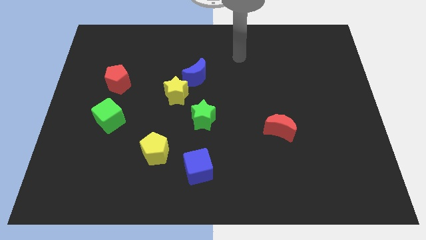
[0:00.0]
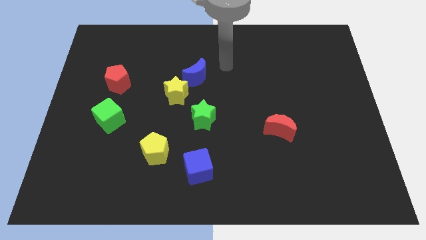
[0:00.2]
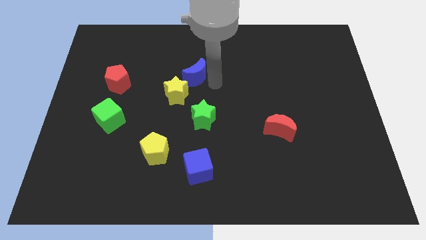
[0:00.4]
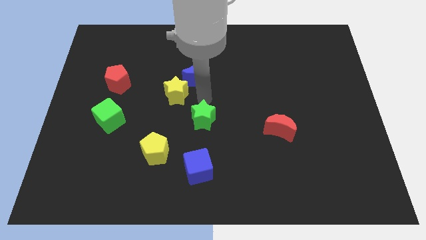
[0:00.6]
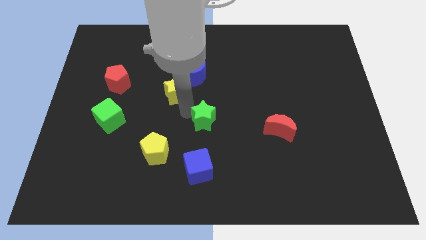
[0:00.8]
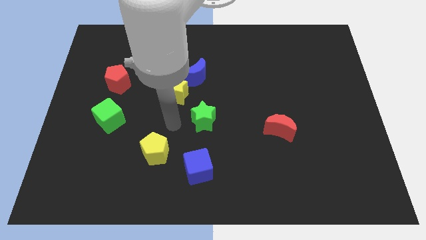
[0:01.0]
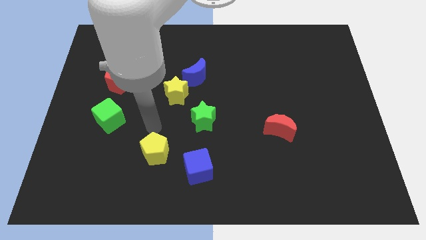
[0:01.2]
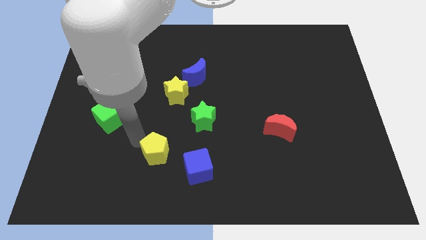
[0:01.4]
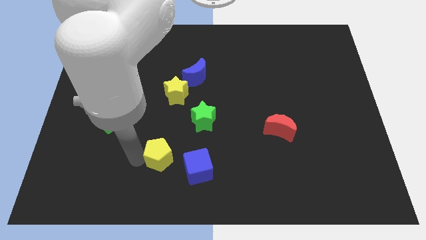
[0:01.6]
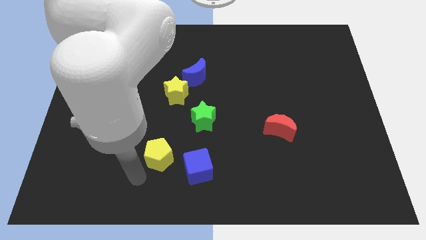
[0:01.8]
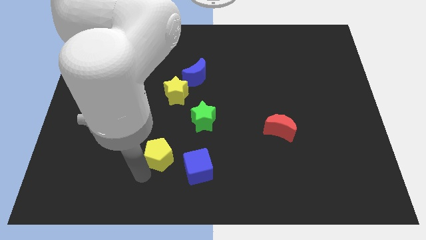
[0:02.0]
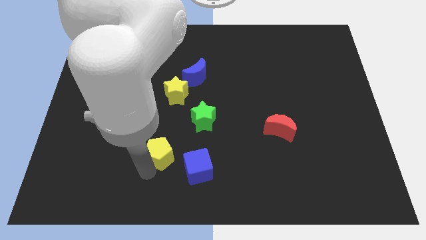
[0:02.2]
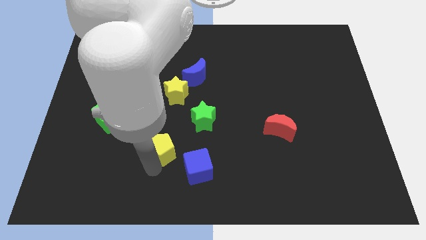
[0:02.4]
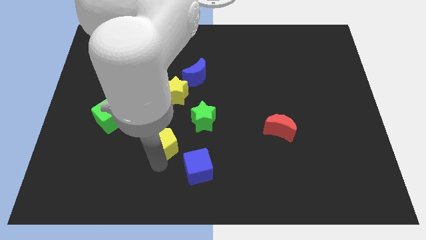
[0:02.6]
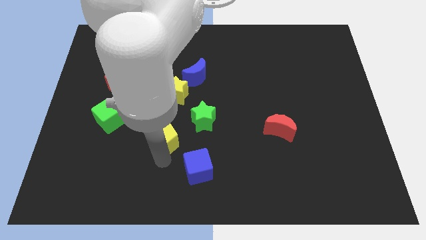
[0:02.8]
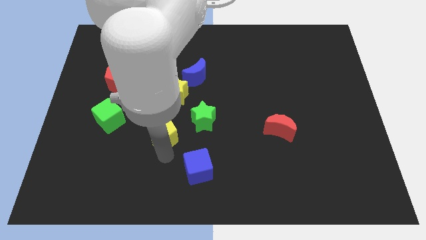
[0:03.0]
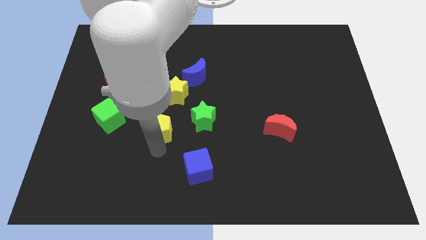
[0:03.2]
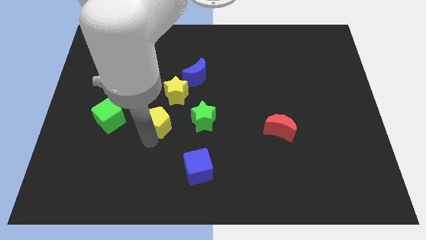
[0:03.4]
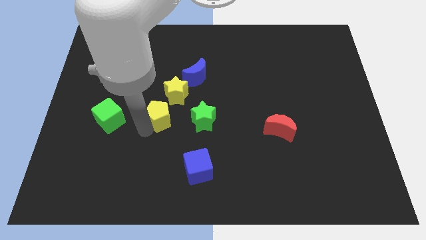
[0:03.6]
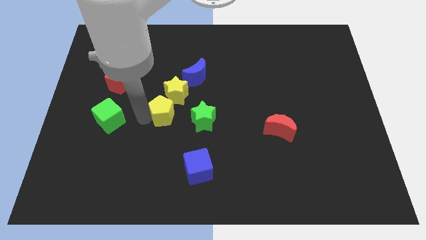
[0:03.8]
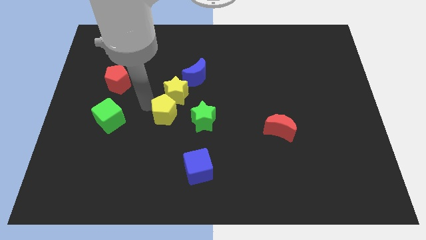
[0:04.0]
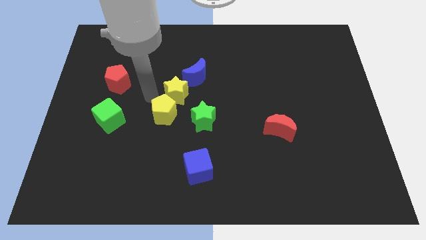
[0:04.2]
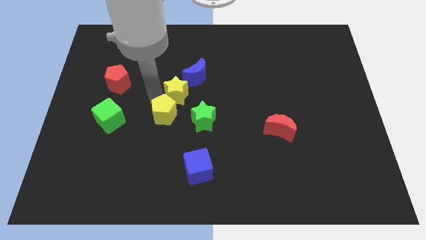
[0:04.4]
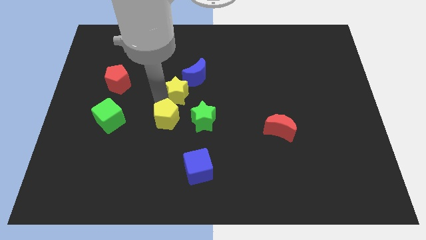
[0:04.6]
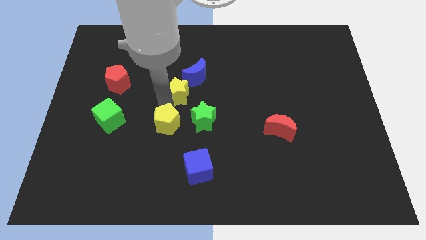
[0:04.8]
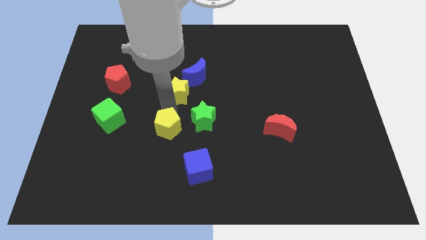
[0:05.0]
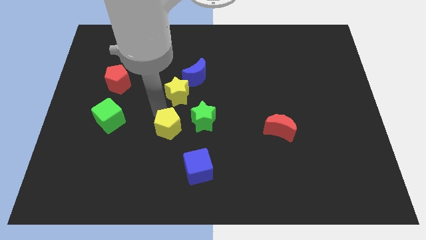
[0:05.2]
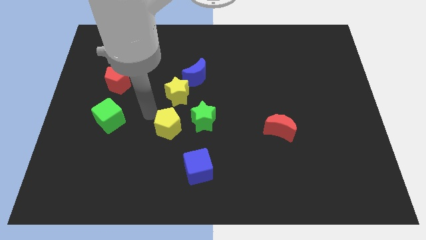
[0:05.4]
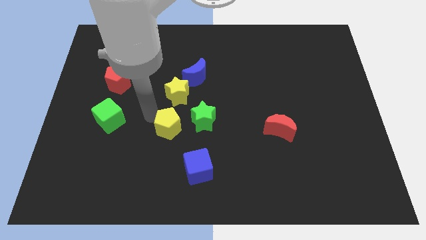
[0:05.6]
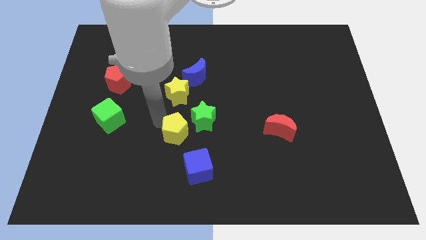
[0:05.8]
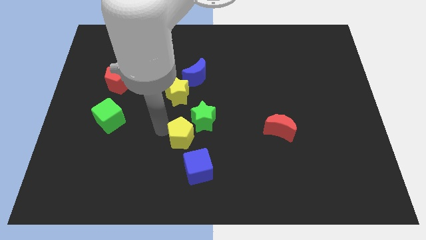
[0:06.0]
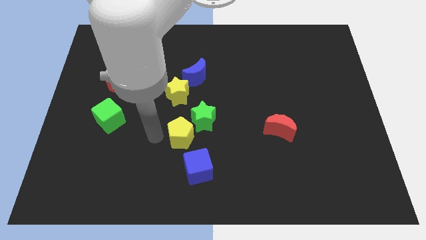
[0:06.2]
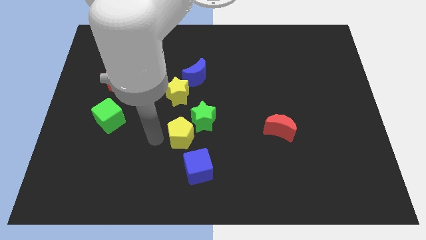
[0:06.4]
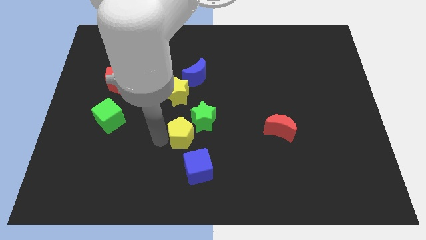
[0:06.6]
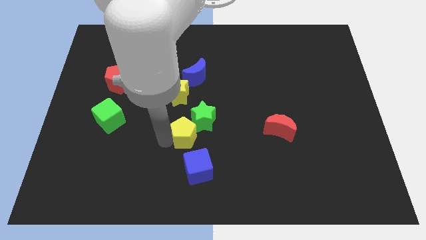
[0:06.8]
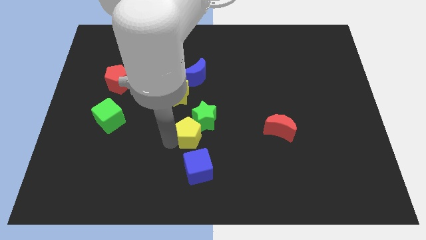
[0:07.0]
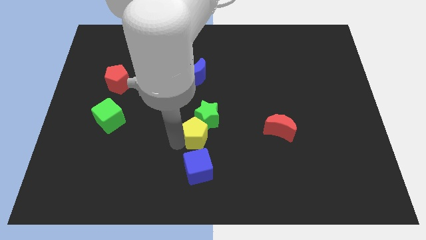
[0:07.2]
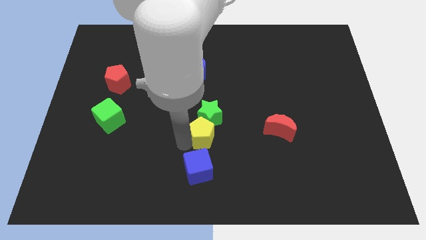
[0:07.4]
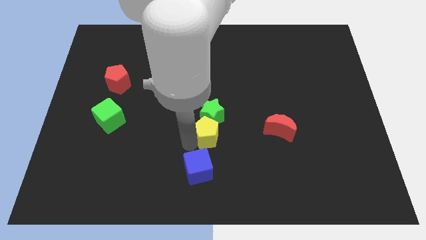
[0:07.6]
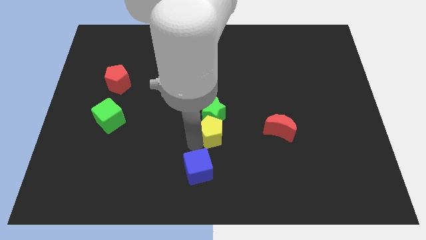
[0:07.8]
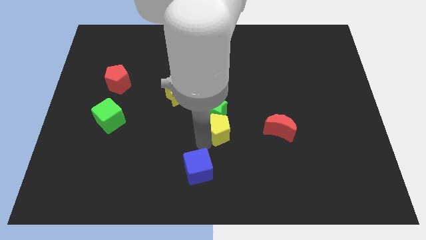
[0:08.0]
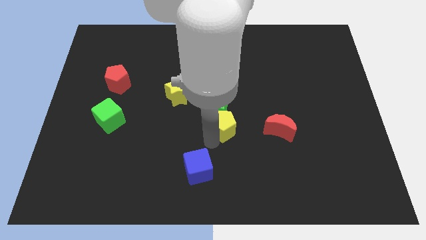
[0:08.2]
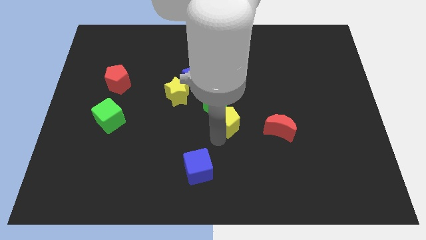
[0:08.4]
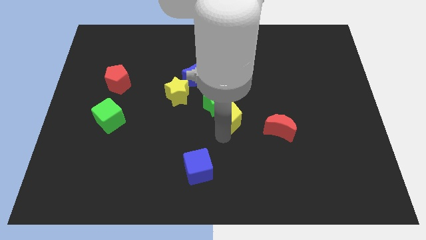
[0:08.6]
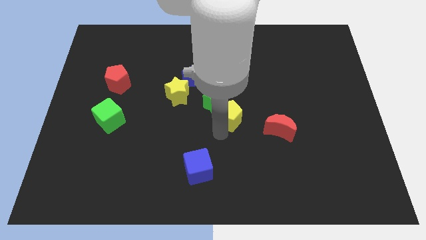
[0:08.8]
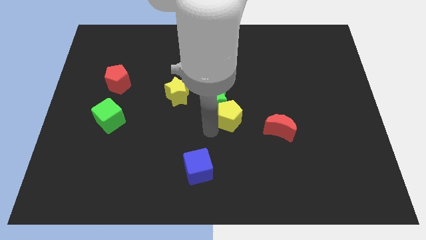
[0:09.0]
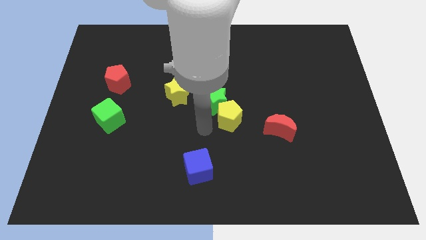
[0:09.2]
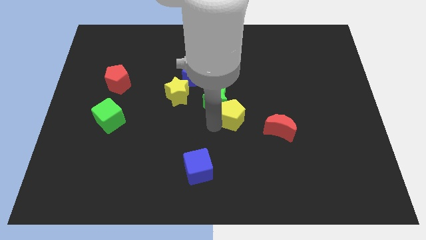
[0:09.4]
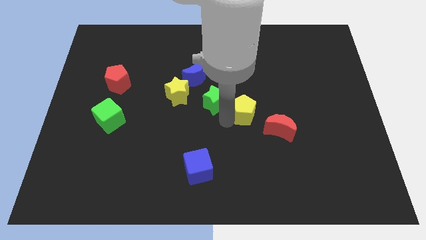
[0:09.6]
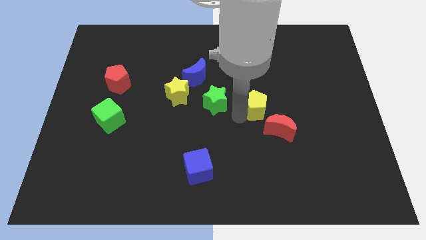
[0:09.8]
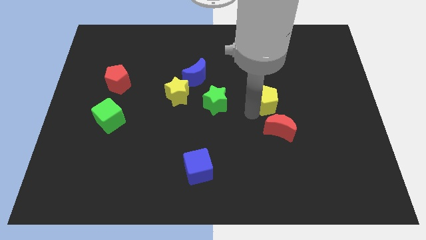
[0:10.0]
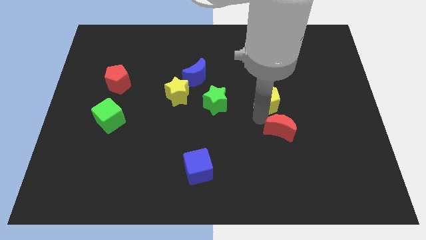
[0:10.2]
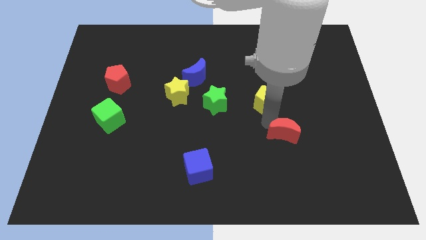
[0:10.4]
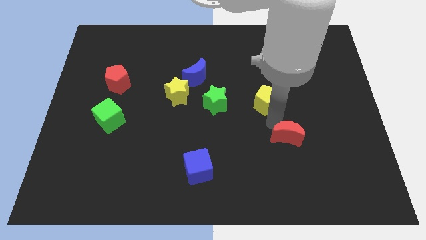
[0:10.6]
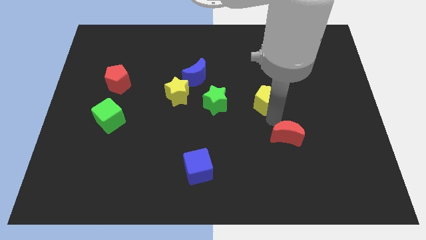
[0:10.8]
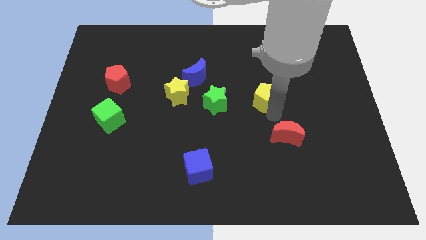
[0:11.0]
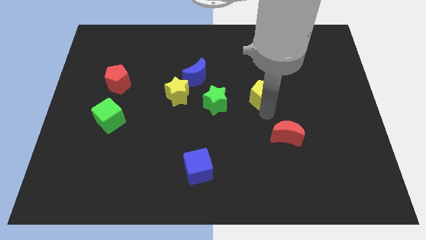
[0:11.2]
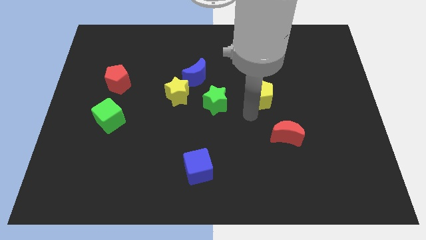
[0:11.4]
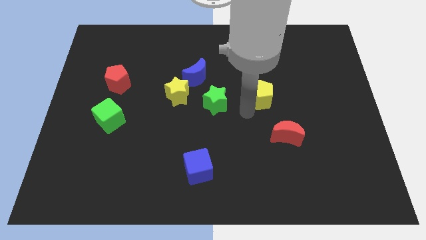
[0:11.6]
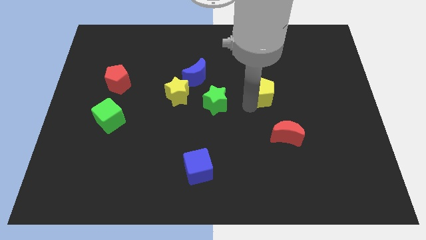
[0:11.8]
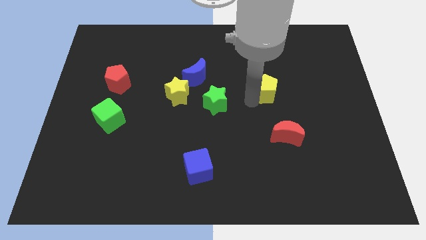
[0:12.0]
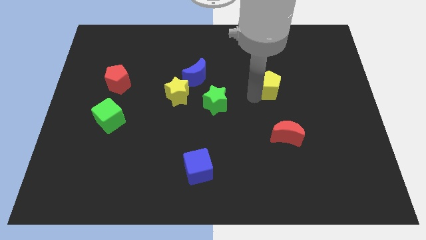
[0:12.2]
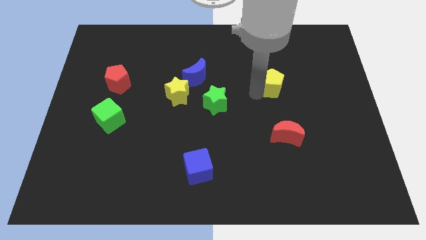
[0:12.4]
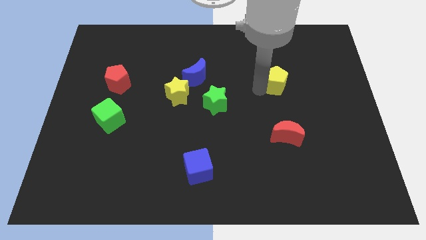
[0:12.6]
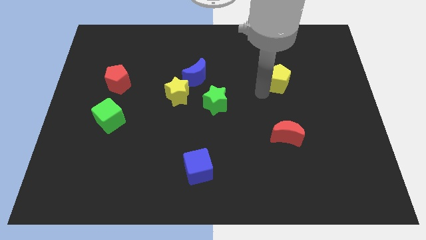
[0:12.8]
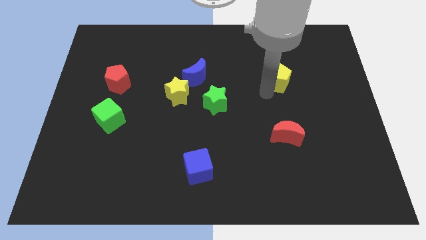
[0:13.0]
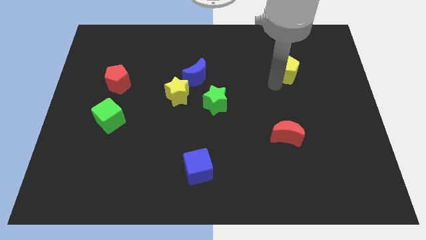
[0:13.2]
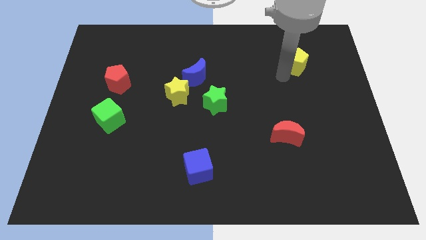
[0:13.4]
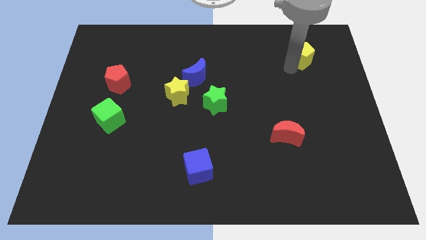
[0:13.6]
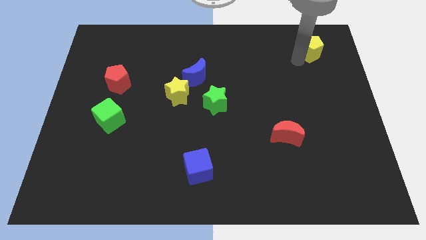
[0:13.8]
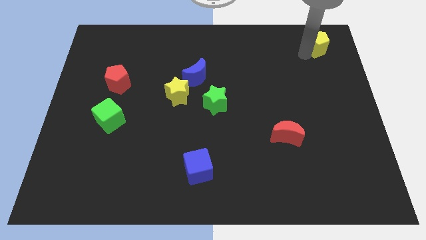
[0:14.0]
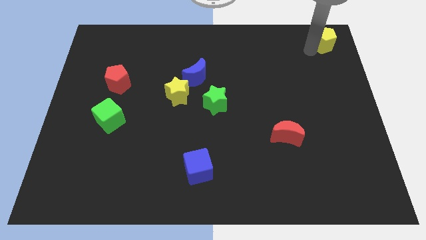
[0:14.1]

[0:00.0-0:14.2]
slide the yellow pentagon to the top right
